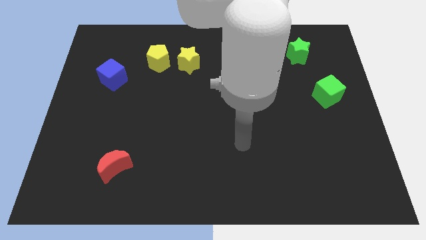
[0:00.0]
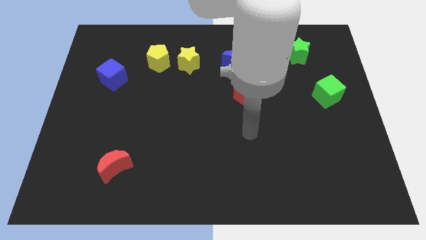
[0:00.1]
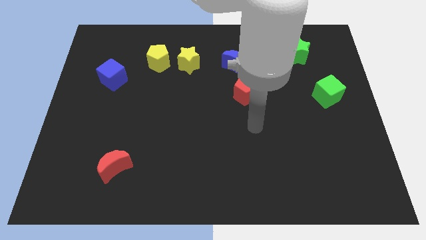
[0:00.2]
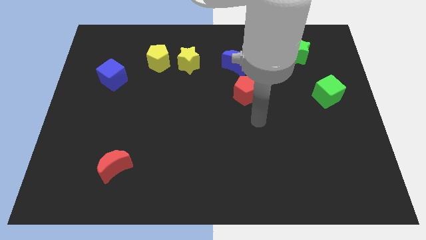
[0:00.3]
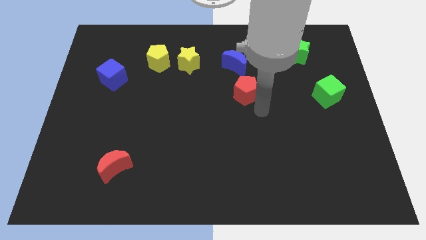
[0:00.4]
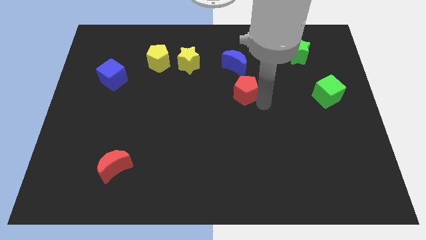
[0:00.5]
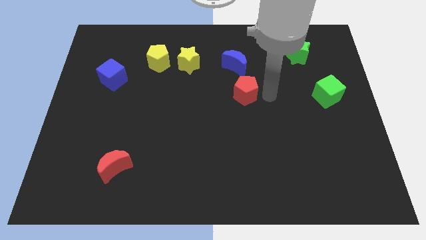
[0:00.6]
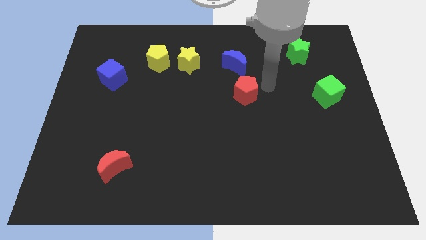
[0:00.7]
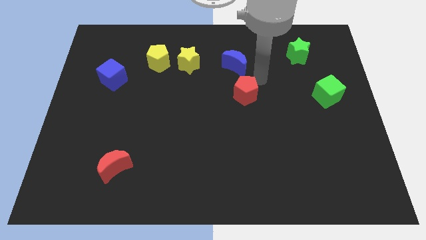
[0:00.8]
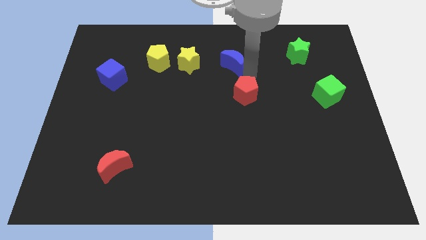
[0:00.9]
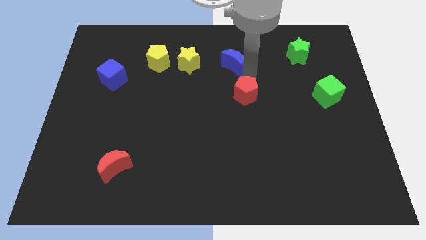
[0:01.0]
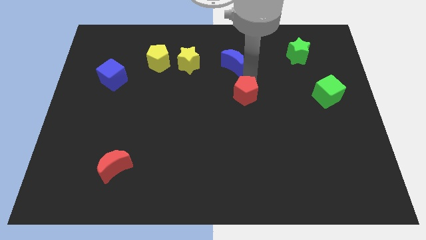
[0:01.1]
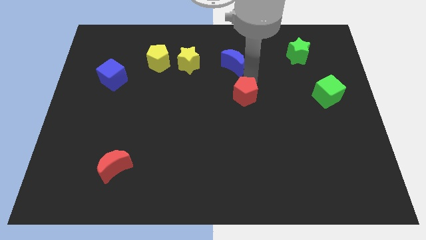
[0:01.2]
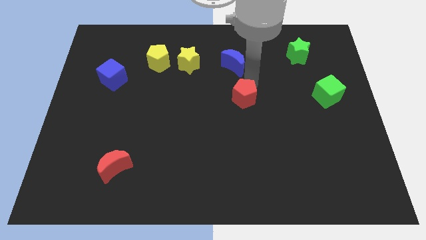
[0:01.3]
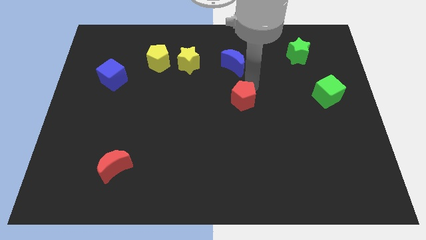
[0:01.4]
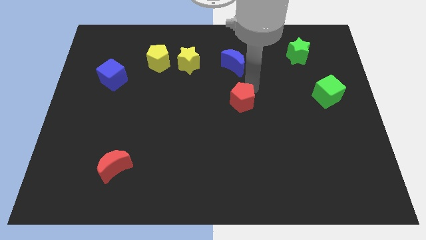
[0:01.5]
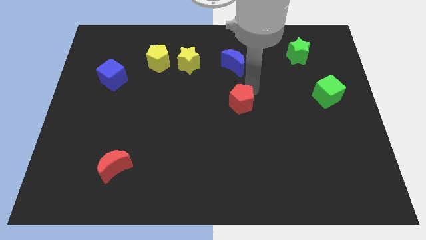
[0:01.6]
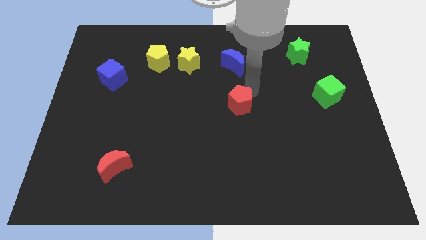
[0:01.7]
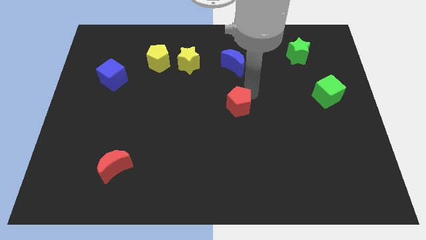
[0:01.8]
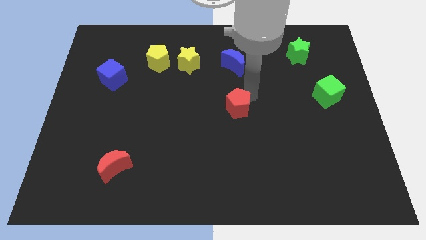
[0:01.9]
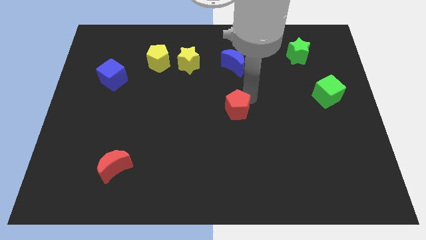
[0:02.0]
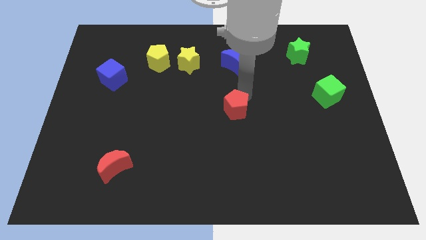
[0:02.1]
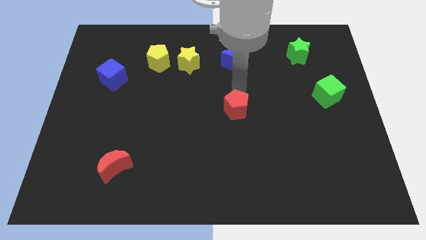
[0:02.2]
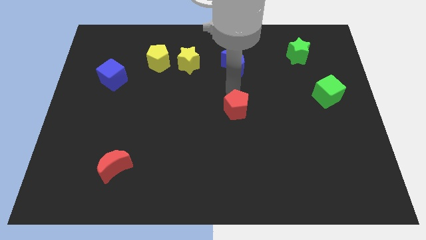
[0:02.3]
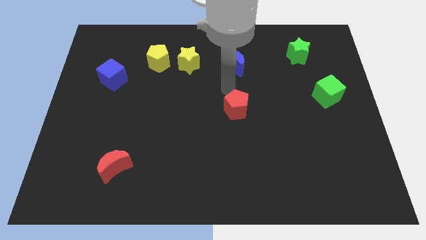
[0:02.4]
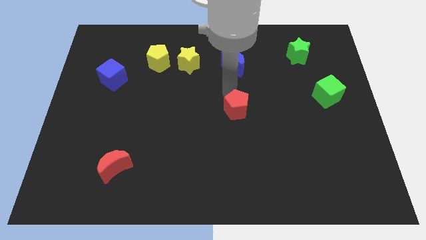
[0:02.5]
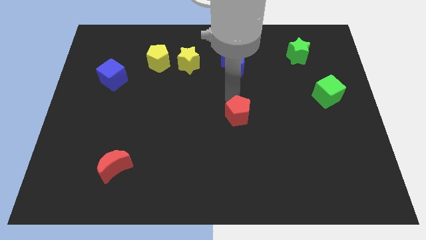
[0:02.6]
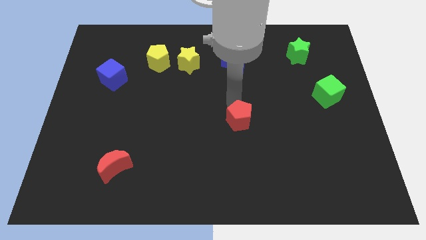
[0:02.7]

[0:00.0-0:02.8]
slightly push the red pentagon down

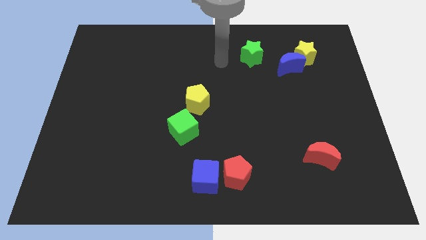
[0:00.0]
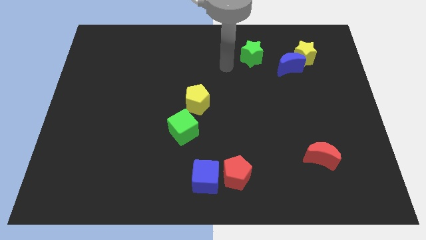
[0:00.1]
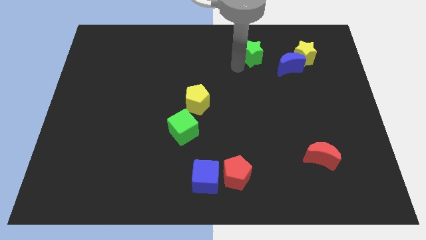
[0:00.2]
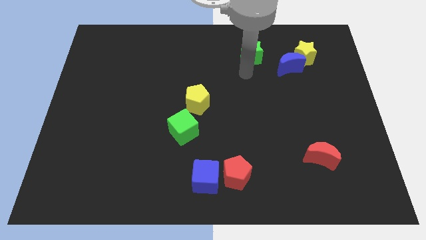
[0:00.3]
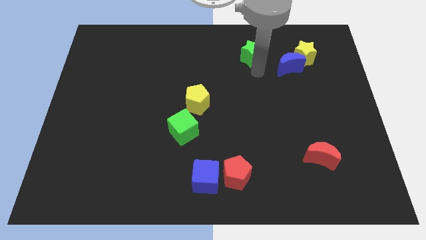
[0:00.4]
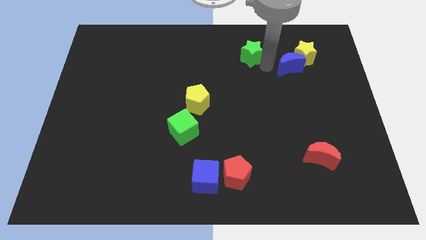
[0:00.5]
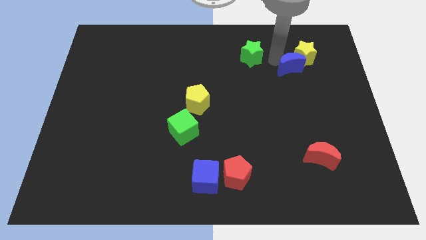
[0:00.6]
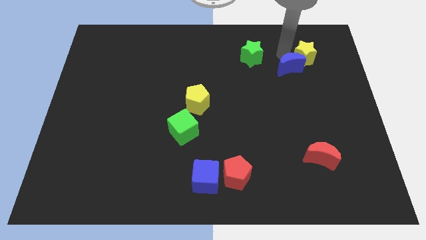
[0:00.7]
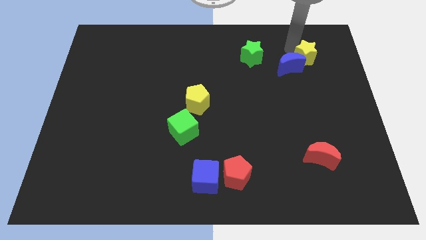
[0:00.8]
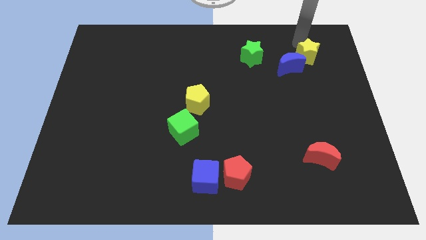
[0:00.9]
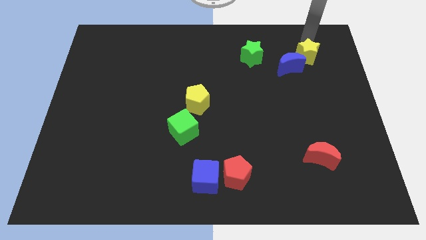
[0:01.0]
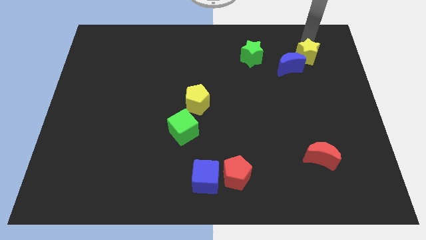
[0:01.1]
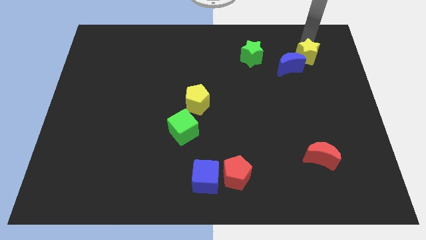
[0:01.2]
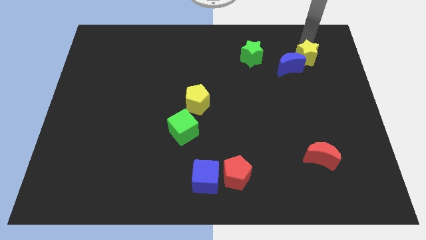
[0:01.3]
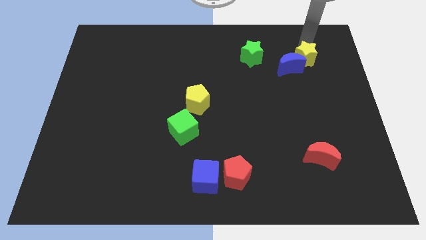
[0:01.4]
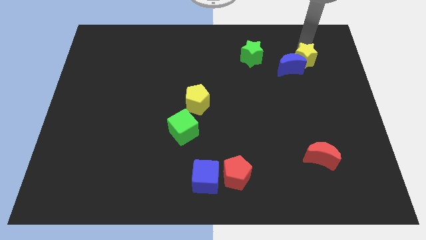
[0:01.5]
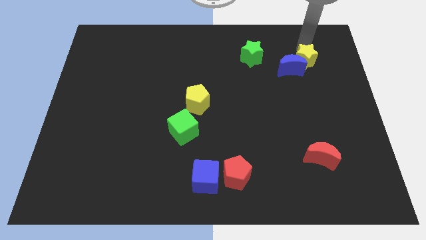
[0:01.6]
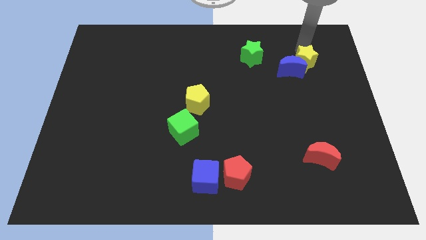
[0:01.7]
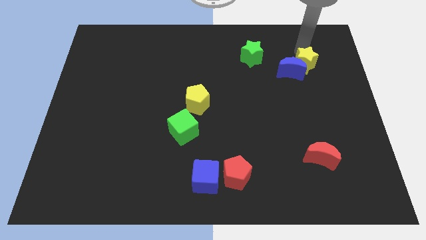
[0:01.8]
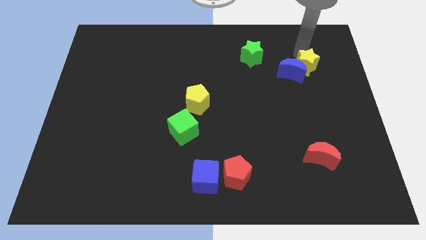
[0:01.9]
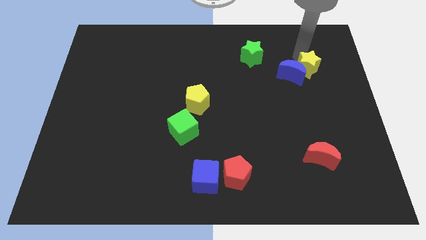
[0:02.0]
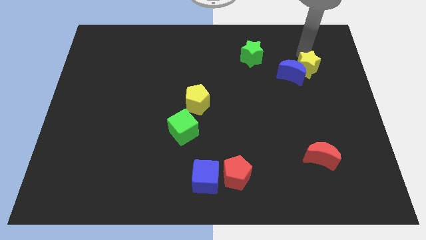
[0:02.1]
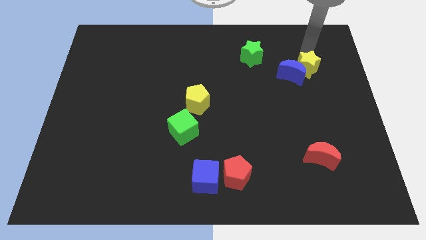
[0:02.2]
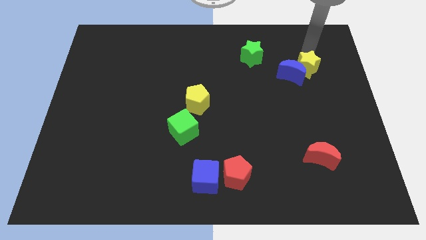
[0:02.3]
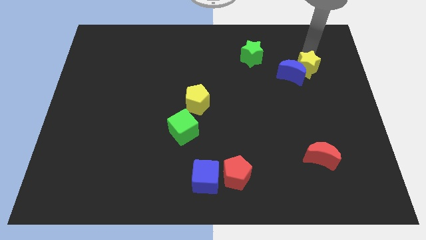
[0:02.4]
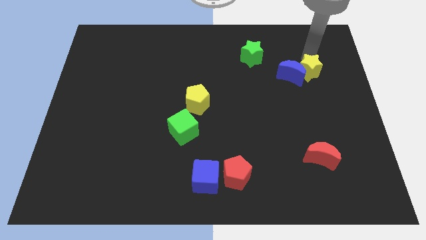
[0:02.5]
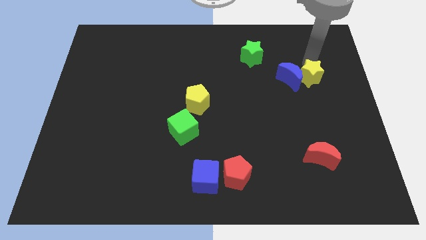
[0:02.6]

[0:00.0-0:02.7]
slightly push the yellow star down

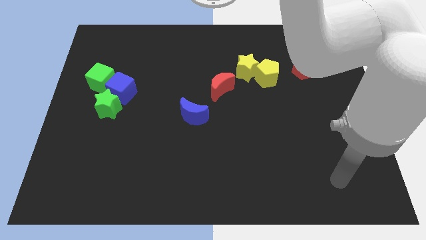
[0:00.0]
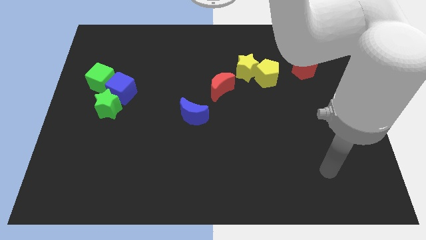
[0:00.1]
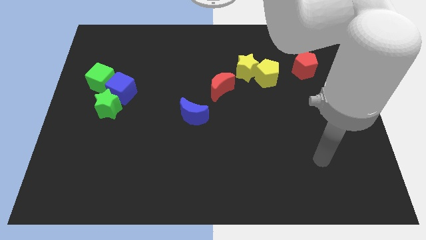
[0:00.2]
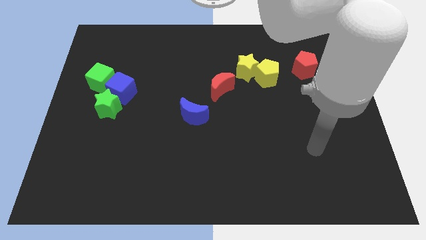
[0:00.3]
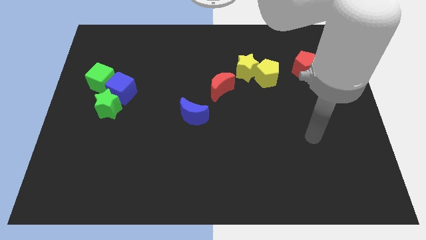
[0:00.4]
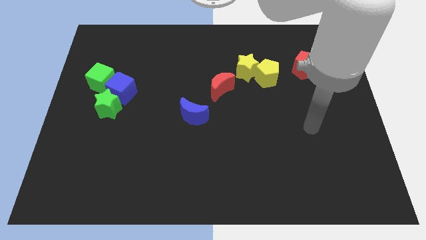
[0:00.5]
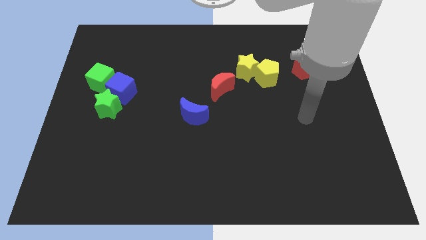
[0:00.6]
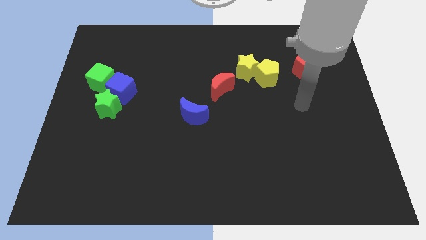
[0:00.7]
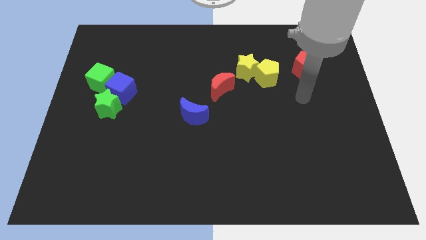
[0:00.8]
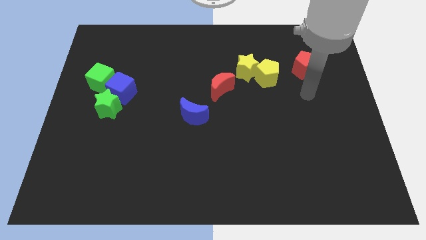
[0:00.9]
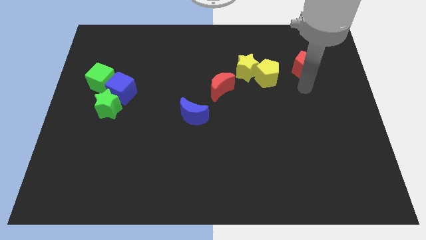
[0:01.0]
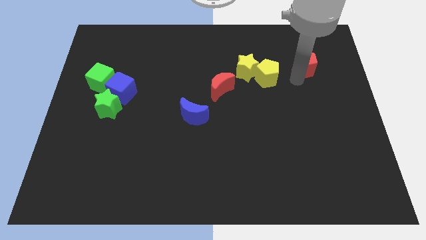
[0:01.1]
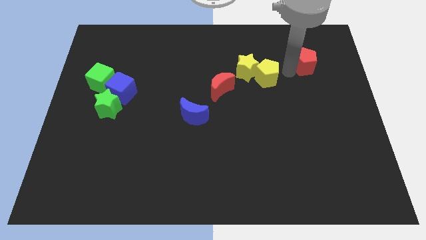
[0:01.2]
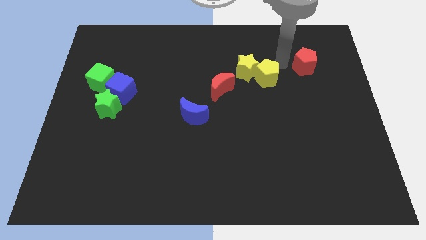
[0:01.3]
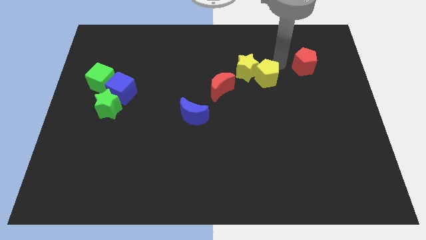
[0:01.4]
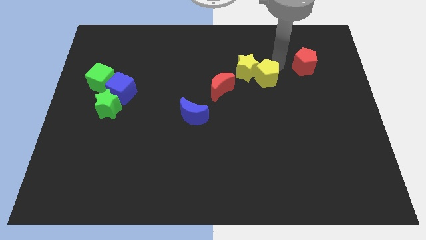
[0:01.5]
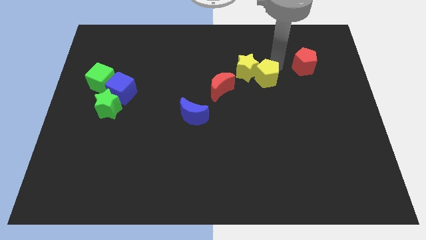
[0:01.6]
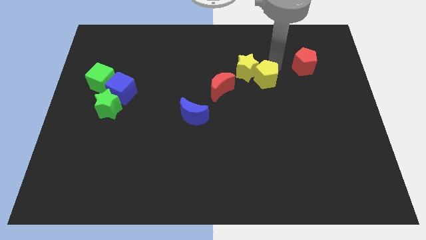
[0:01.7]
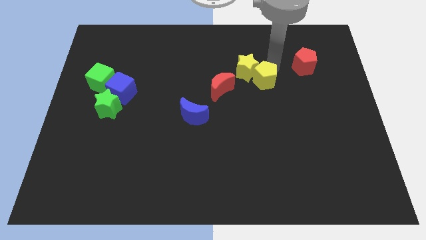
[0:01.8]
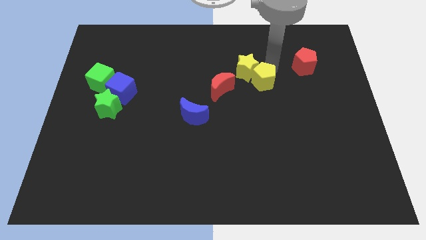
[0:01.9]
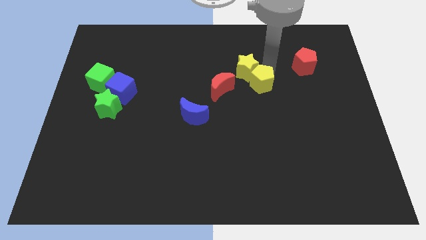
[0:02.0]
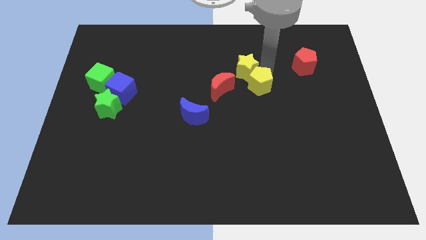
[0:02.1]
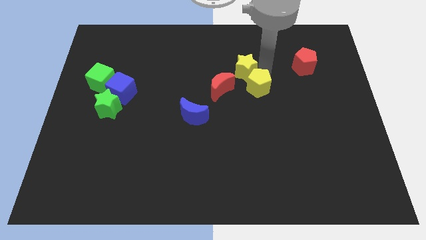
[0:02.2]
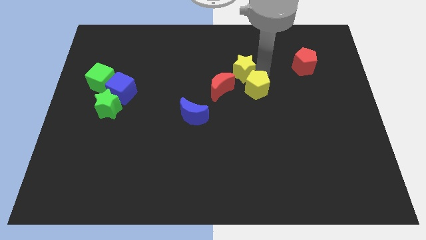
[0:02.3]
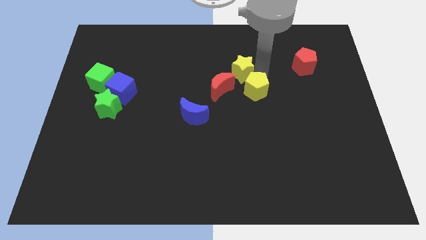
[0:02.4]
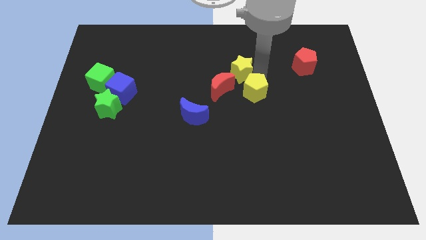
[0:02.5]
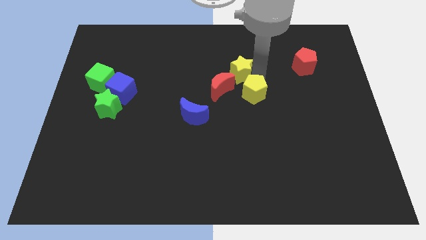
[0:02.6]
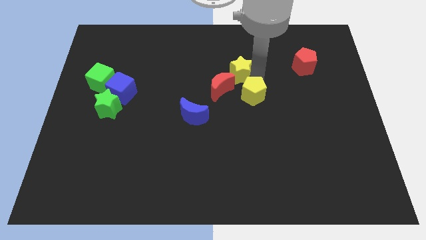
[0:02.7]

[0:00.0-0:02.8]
move the yellow pentagon slightly downwards and to the left
